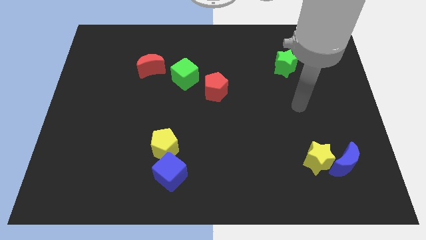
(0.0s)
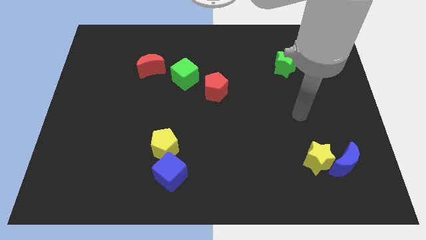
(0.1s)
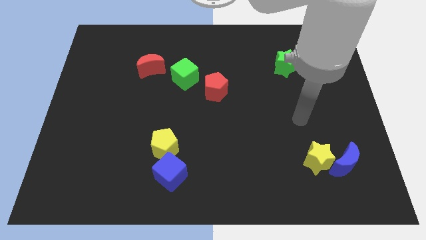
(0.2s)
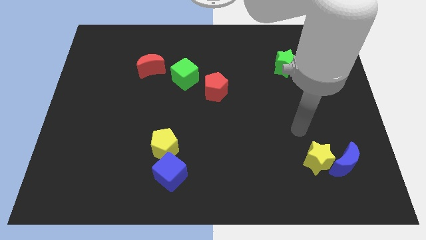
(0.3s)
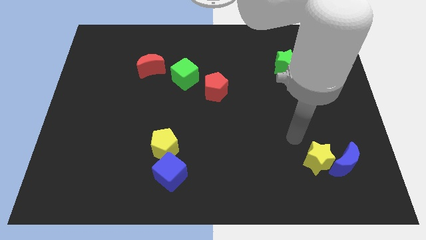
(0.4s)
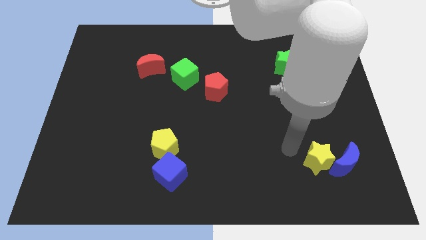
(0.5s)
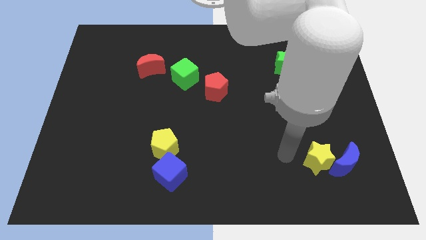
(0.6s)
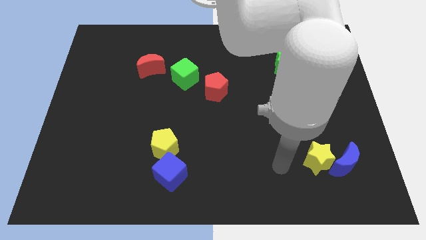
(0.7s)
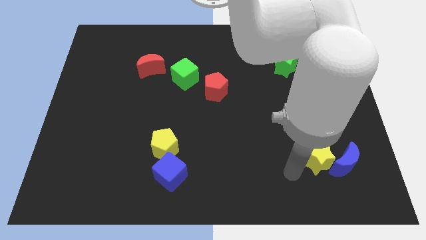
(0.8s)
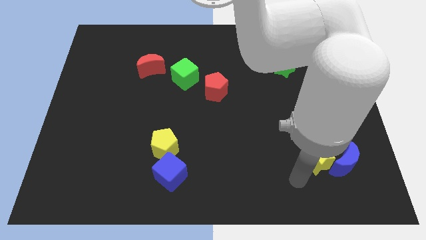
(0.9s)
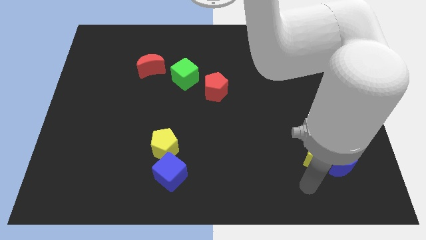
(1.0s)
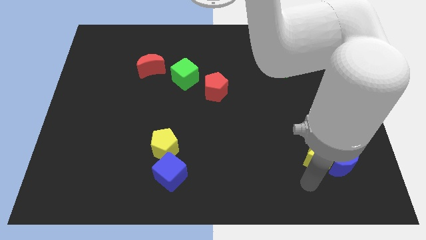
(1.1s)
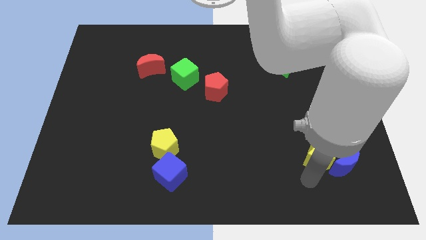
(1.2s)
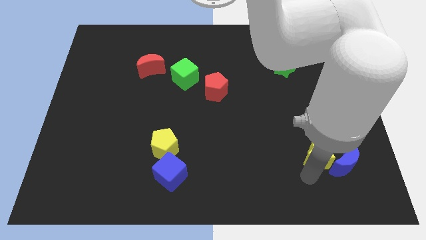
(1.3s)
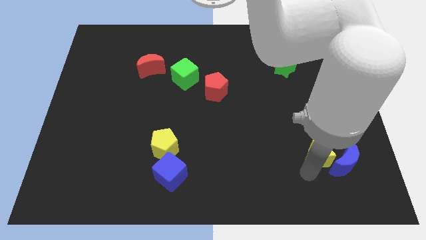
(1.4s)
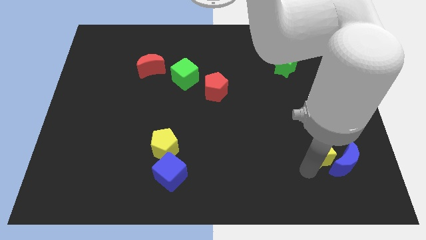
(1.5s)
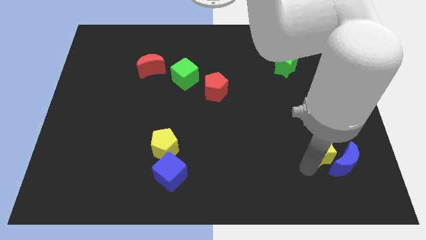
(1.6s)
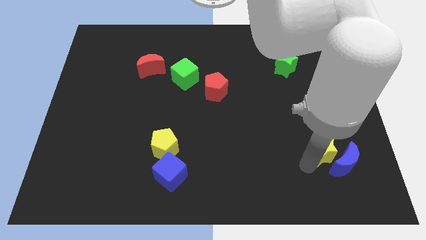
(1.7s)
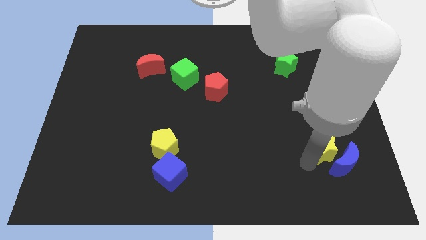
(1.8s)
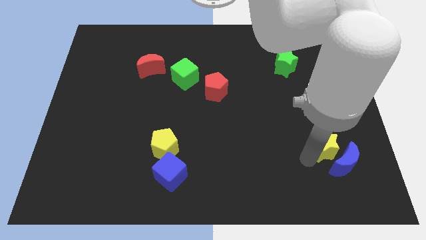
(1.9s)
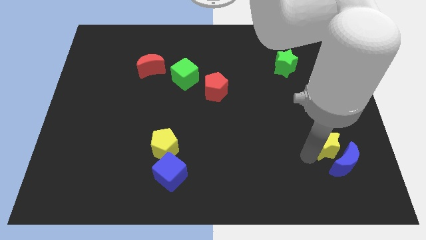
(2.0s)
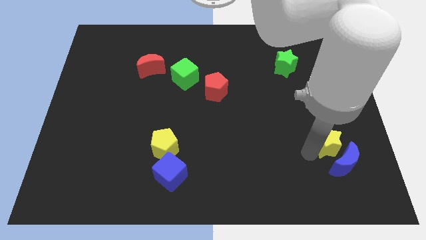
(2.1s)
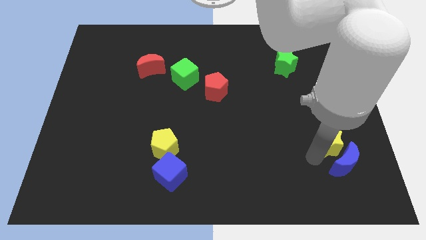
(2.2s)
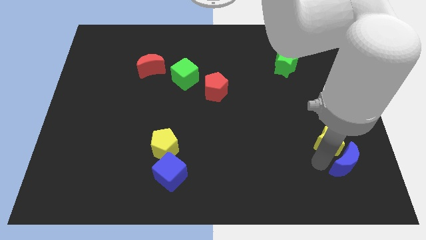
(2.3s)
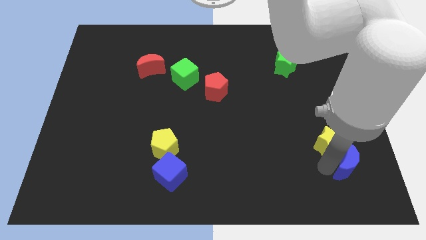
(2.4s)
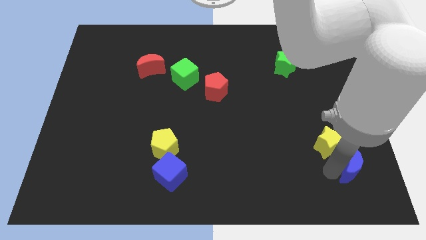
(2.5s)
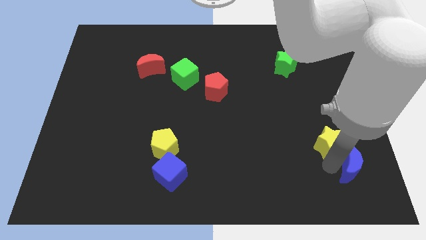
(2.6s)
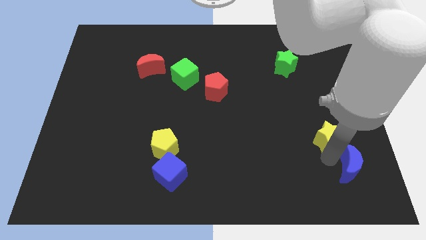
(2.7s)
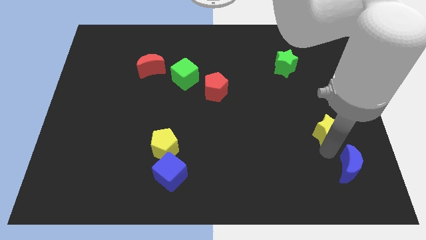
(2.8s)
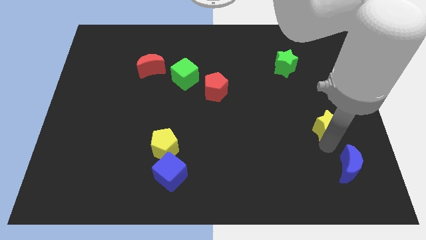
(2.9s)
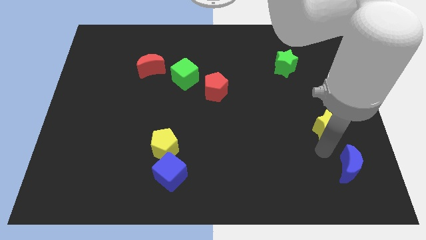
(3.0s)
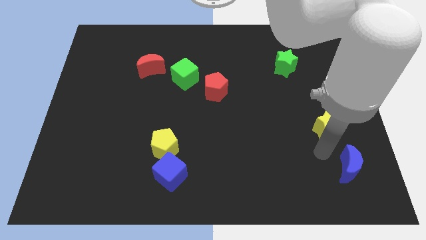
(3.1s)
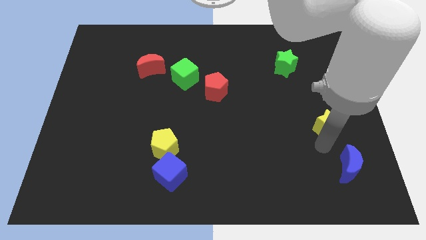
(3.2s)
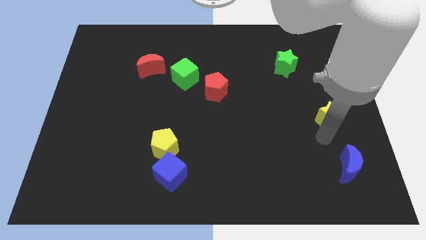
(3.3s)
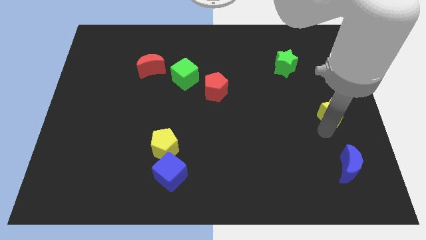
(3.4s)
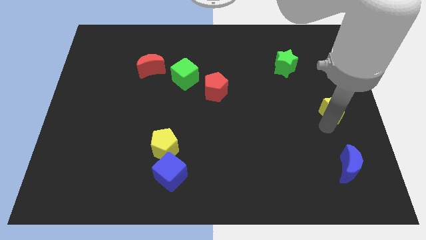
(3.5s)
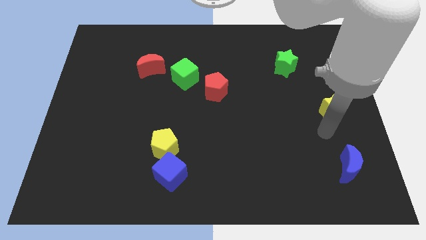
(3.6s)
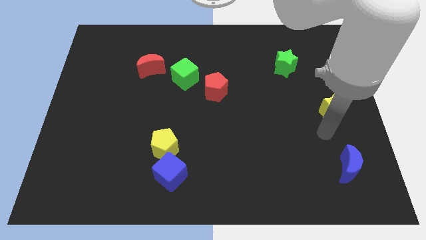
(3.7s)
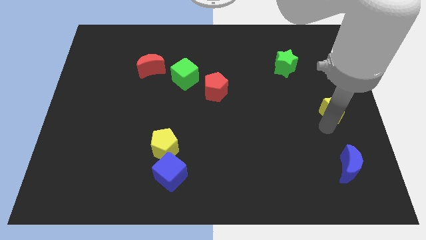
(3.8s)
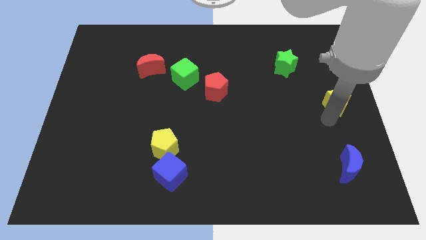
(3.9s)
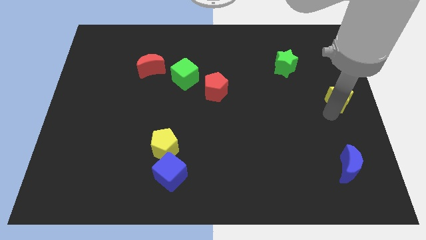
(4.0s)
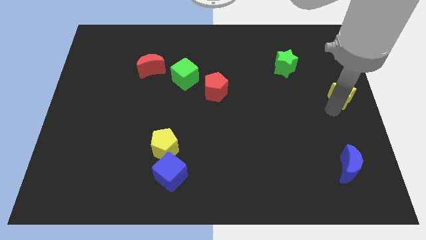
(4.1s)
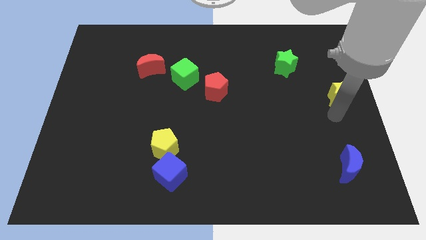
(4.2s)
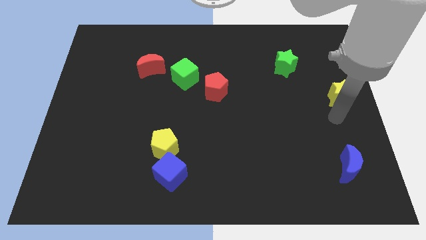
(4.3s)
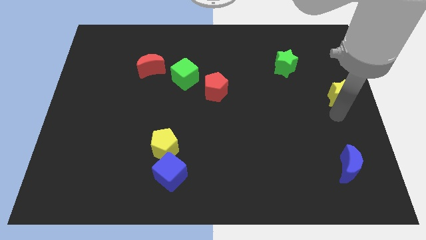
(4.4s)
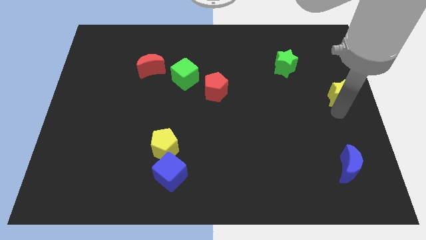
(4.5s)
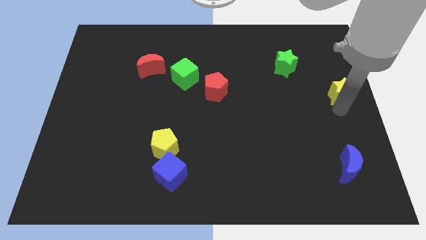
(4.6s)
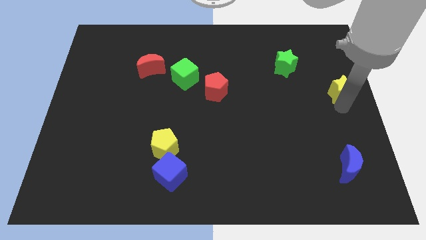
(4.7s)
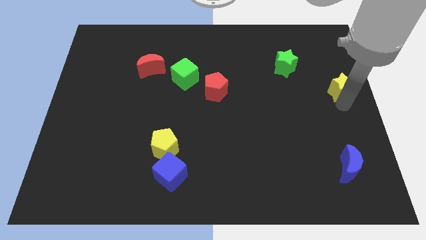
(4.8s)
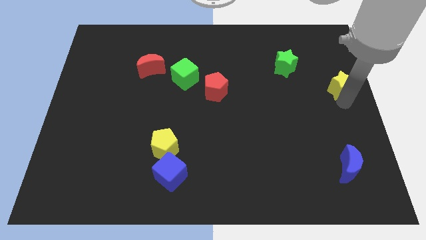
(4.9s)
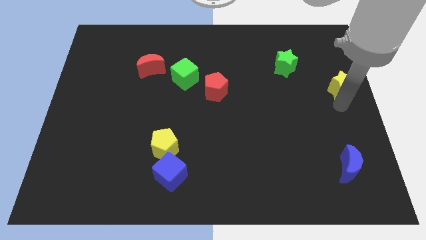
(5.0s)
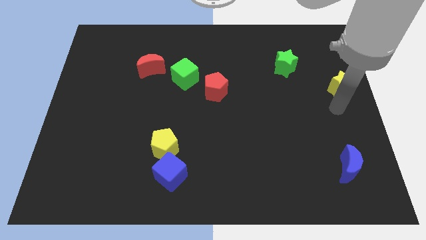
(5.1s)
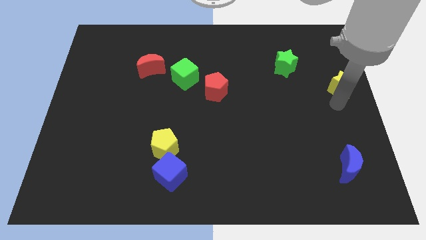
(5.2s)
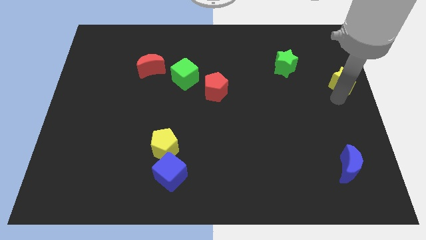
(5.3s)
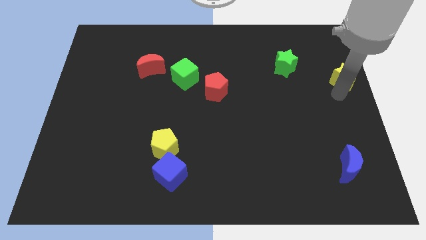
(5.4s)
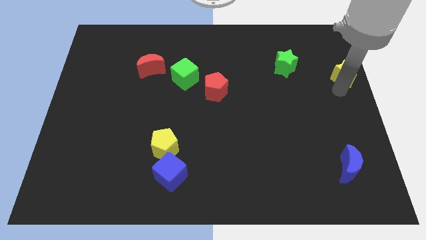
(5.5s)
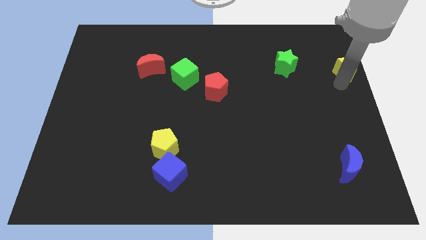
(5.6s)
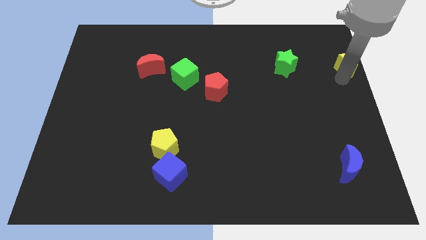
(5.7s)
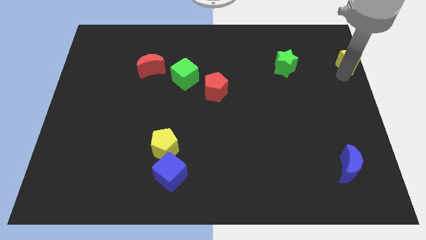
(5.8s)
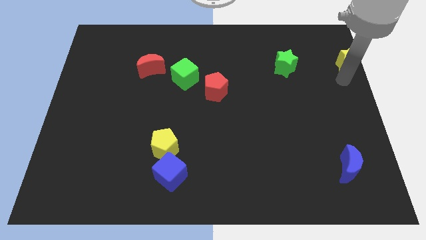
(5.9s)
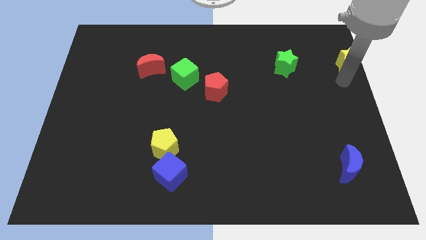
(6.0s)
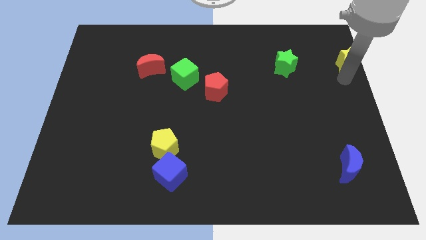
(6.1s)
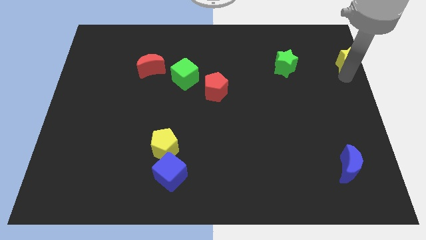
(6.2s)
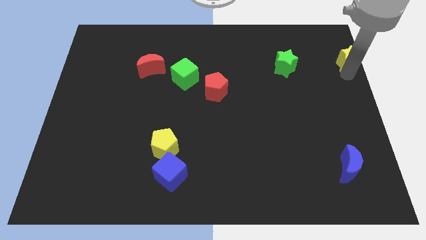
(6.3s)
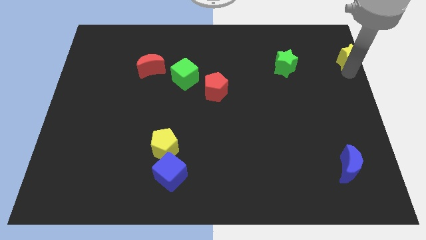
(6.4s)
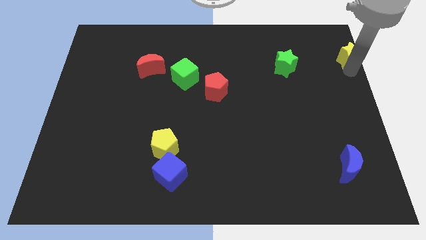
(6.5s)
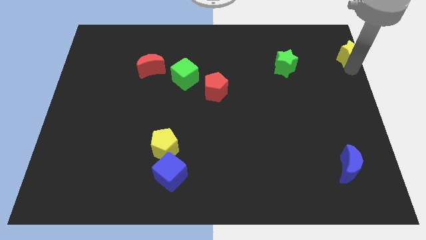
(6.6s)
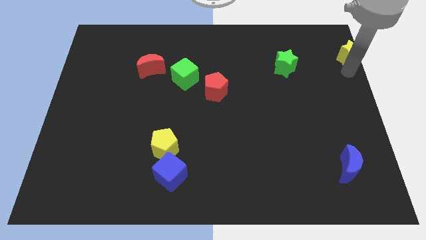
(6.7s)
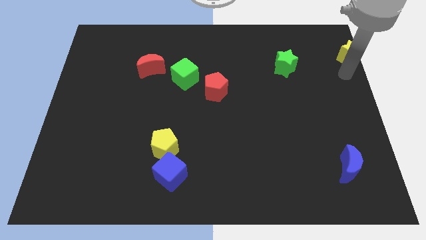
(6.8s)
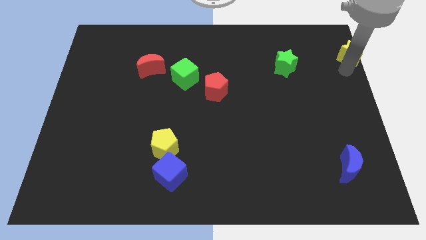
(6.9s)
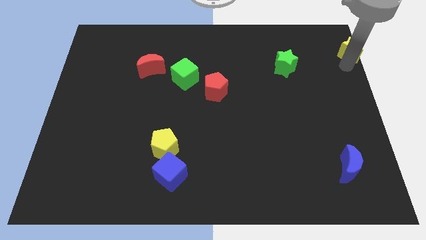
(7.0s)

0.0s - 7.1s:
slide the yellow star to the top right of the board

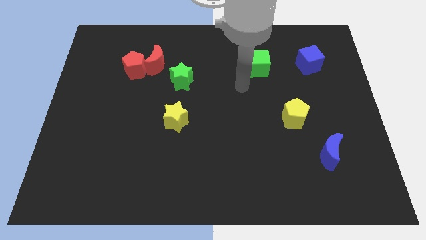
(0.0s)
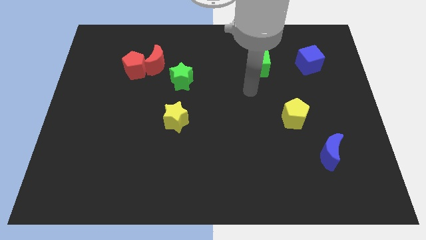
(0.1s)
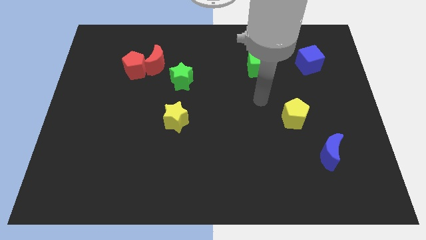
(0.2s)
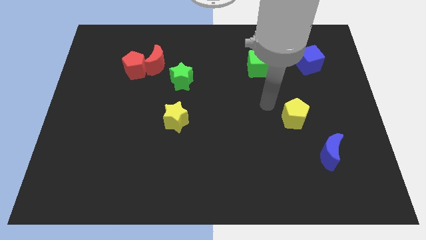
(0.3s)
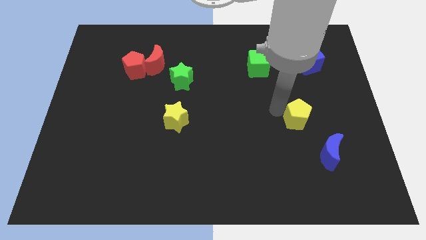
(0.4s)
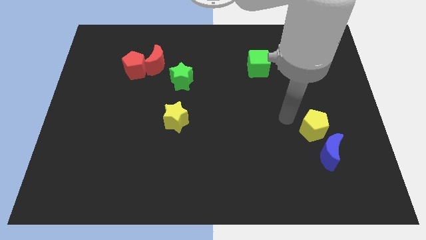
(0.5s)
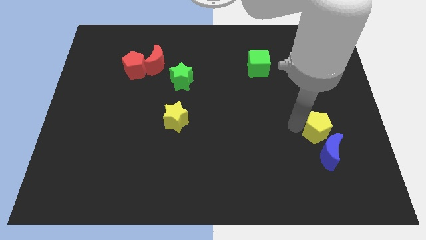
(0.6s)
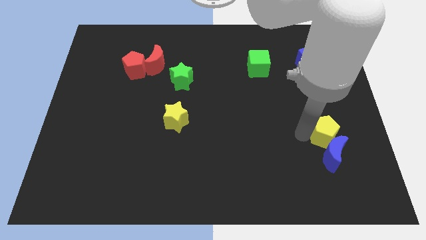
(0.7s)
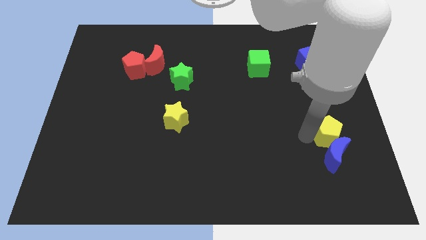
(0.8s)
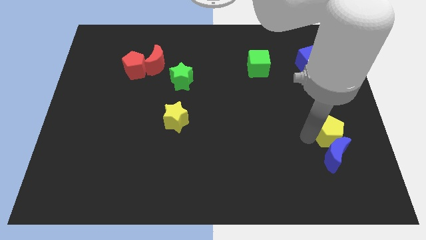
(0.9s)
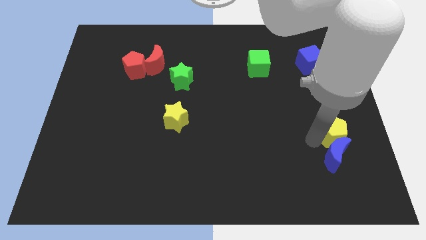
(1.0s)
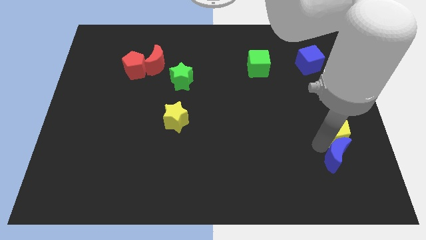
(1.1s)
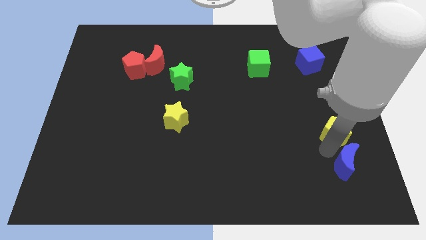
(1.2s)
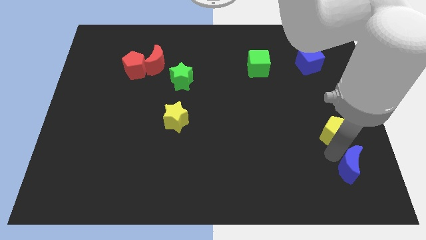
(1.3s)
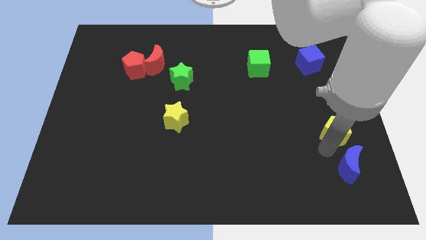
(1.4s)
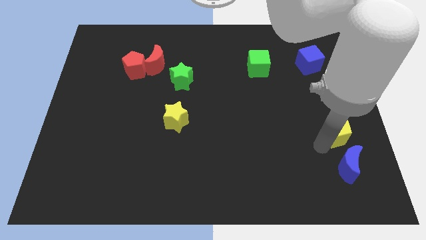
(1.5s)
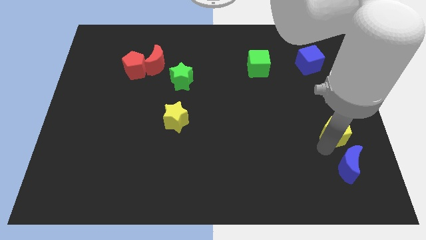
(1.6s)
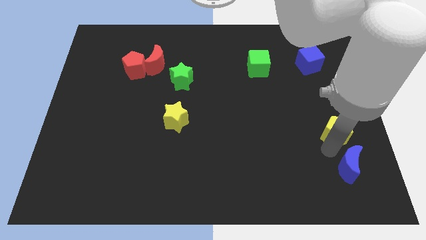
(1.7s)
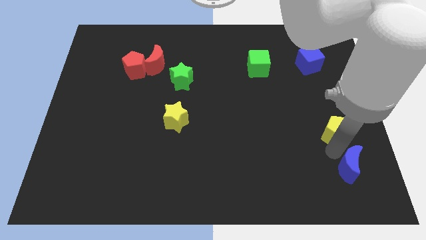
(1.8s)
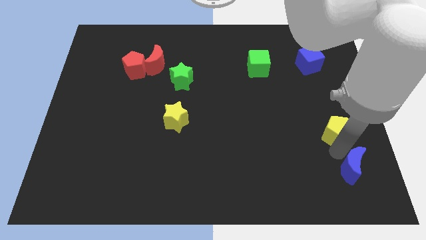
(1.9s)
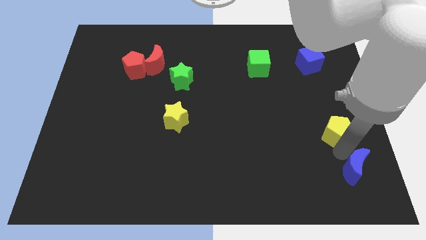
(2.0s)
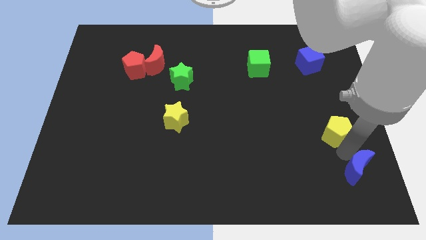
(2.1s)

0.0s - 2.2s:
push the blue moon to the bottom right of the board
